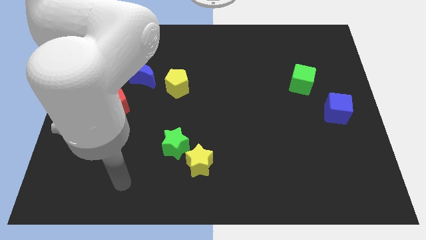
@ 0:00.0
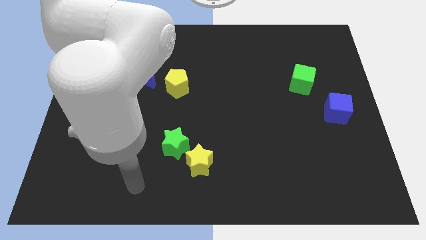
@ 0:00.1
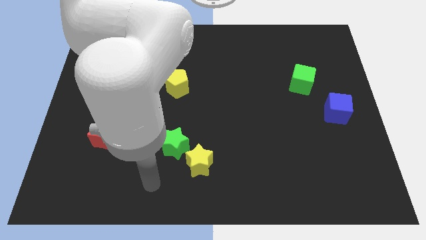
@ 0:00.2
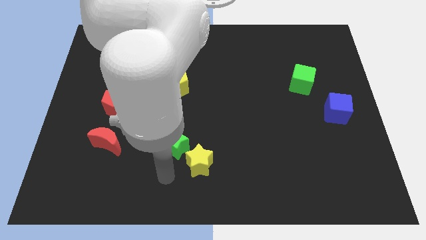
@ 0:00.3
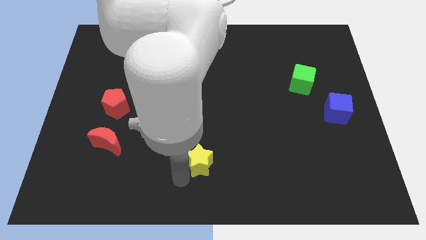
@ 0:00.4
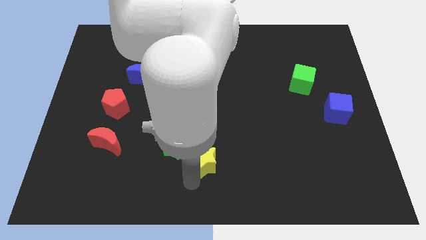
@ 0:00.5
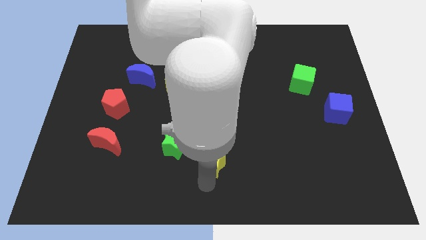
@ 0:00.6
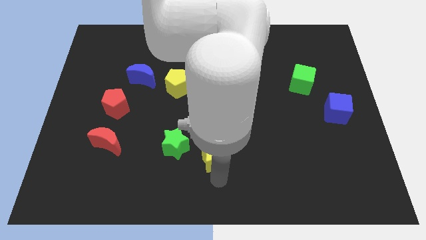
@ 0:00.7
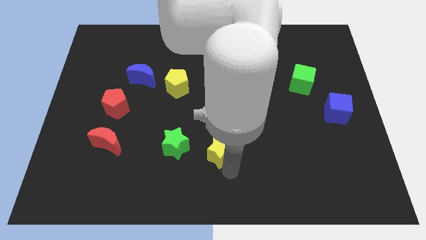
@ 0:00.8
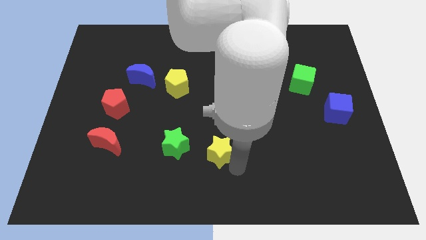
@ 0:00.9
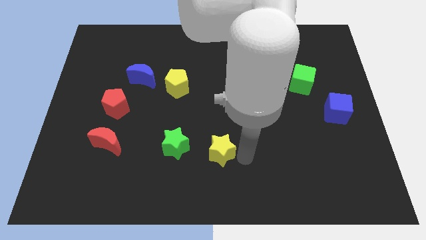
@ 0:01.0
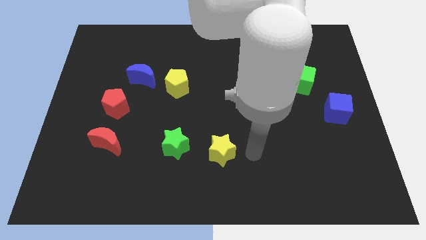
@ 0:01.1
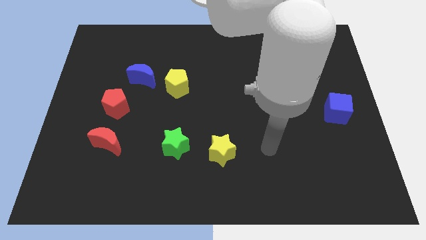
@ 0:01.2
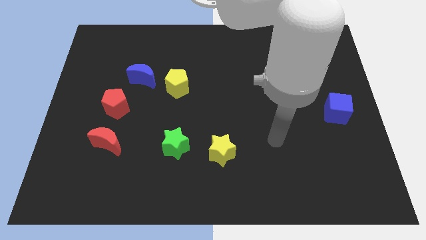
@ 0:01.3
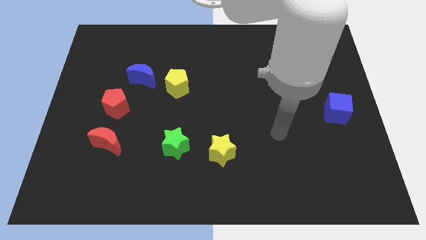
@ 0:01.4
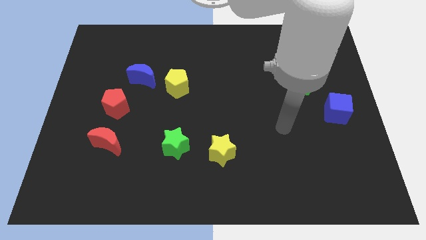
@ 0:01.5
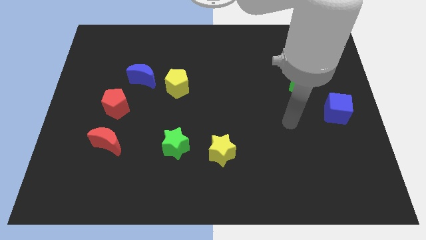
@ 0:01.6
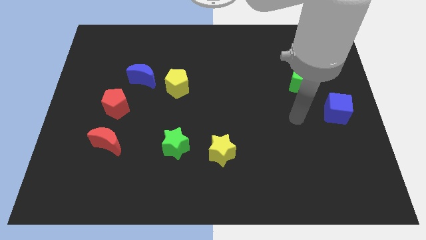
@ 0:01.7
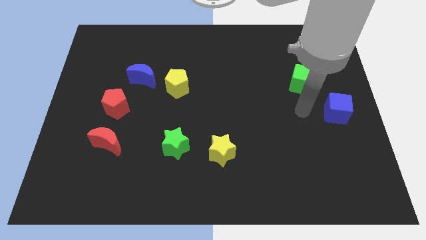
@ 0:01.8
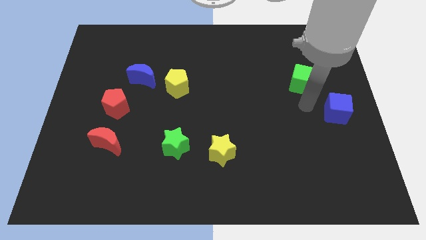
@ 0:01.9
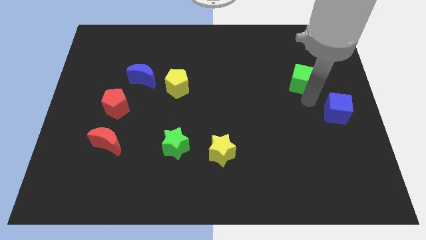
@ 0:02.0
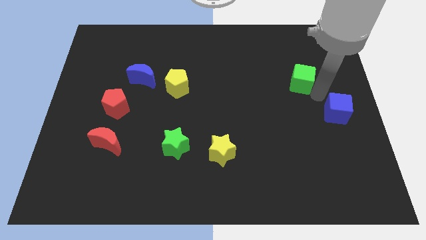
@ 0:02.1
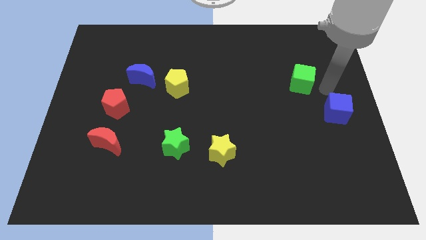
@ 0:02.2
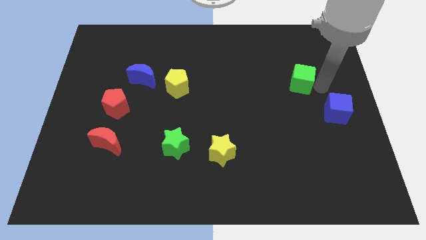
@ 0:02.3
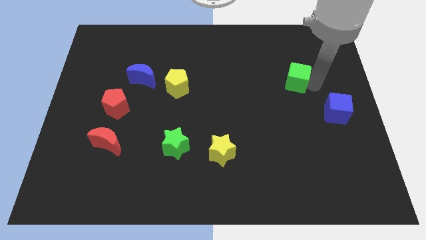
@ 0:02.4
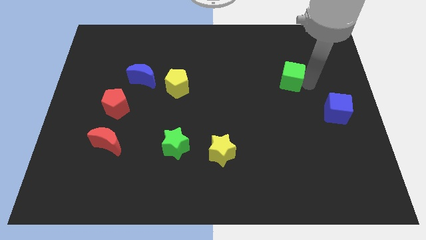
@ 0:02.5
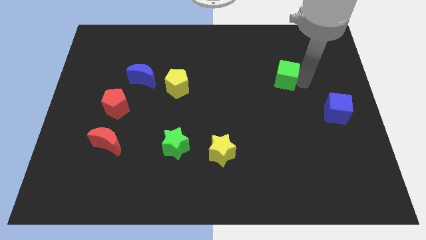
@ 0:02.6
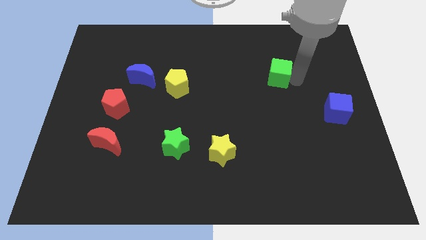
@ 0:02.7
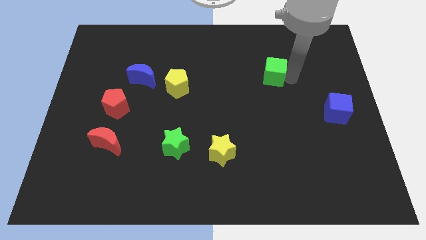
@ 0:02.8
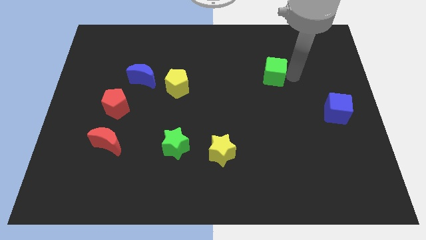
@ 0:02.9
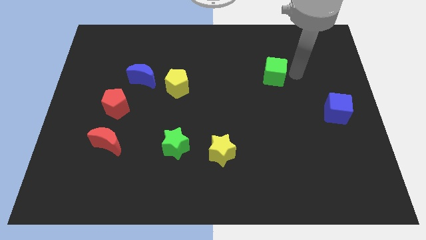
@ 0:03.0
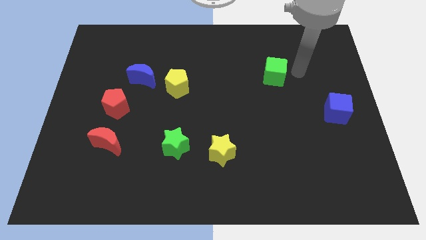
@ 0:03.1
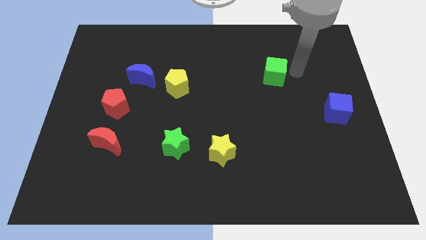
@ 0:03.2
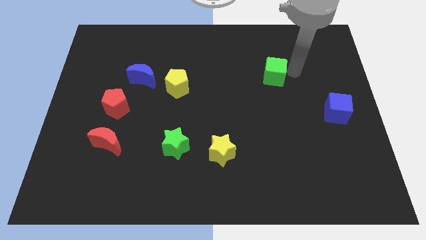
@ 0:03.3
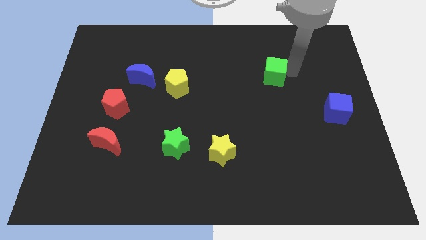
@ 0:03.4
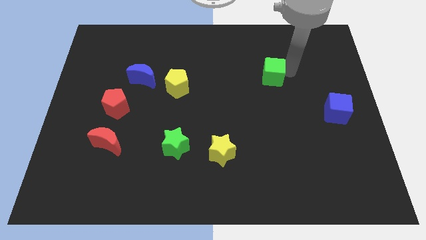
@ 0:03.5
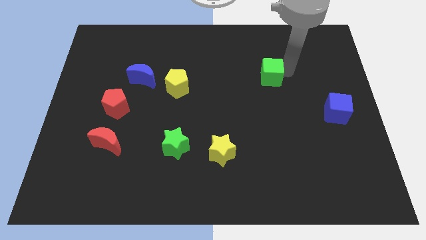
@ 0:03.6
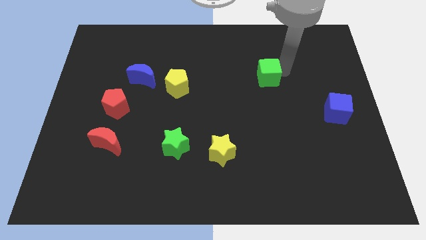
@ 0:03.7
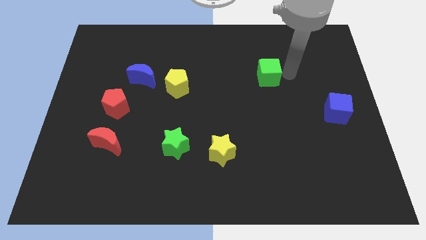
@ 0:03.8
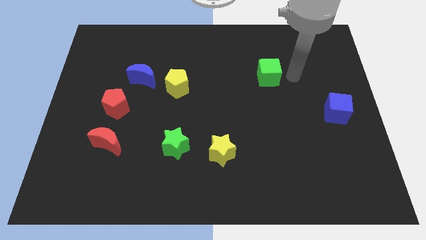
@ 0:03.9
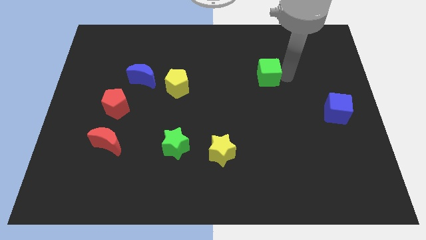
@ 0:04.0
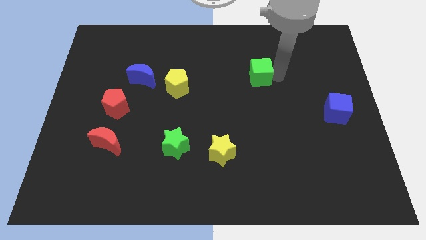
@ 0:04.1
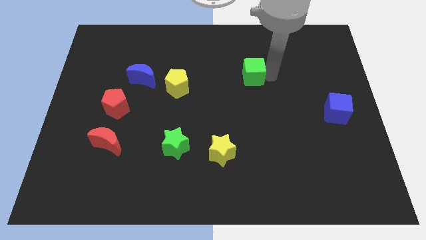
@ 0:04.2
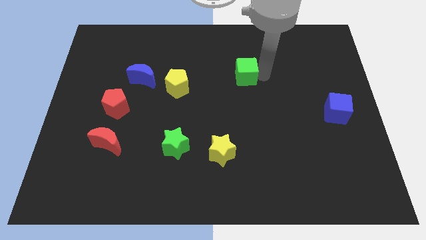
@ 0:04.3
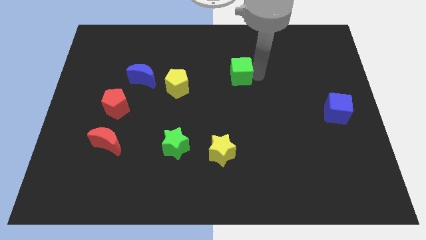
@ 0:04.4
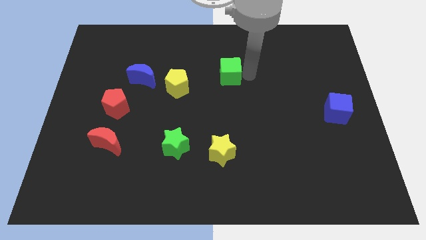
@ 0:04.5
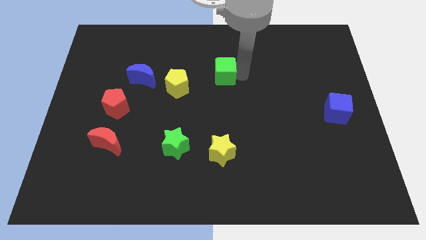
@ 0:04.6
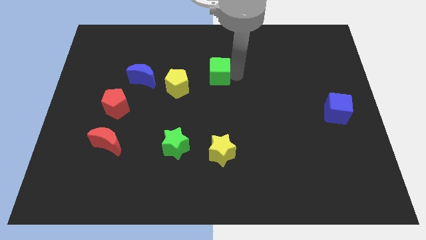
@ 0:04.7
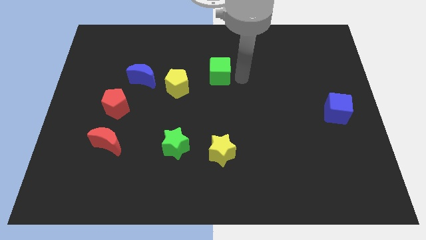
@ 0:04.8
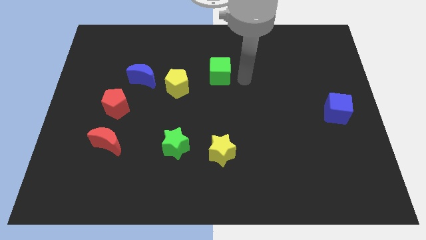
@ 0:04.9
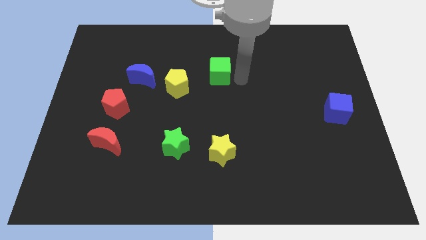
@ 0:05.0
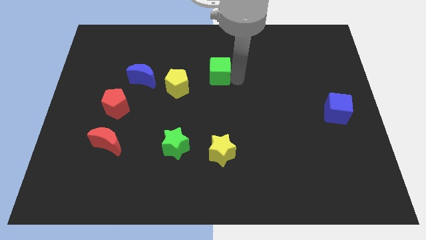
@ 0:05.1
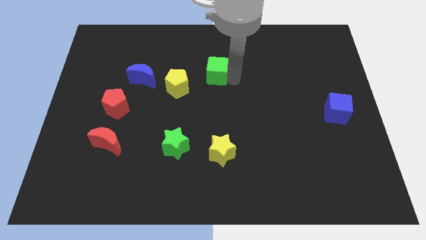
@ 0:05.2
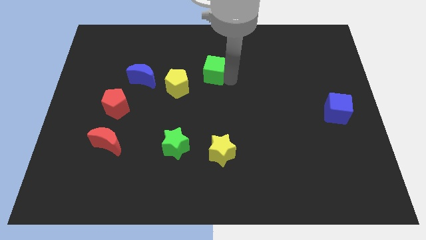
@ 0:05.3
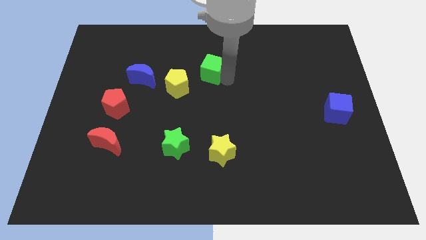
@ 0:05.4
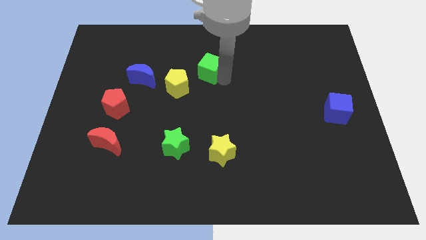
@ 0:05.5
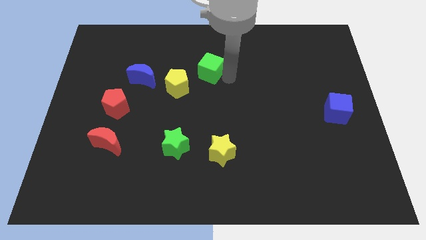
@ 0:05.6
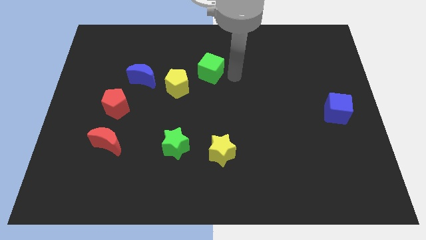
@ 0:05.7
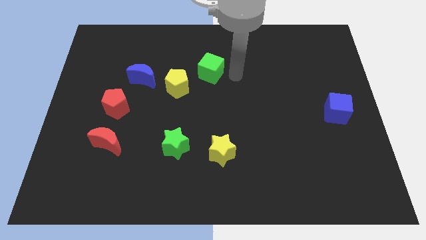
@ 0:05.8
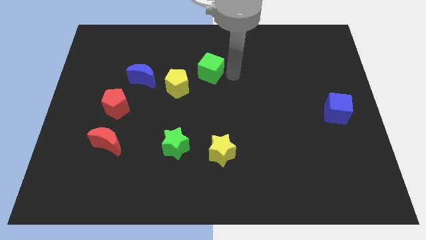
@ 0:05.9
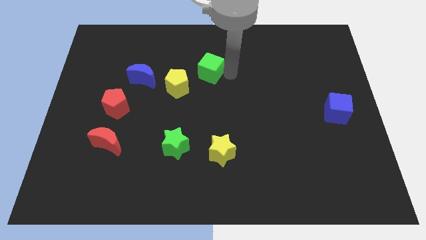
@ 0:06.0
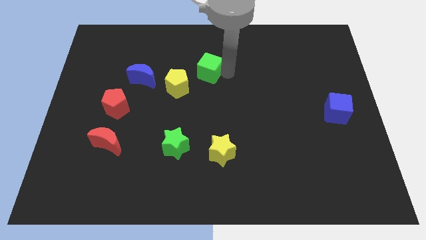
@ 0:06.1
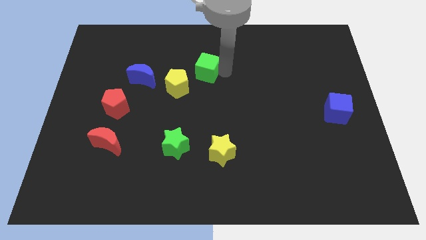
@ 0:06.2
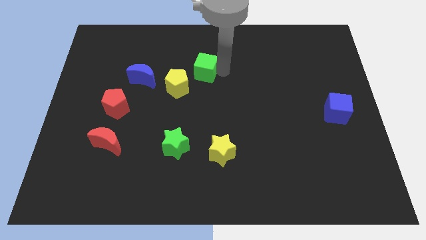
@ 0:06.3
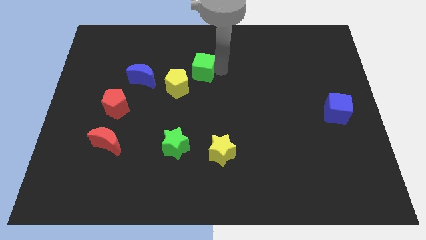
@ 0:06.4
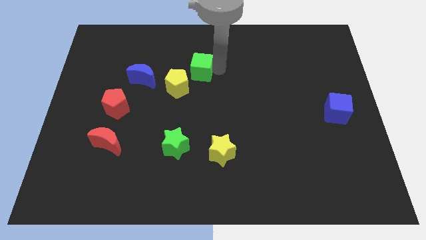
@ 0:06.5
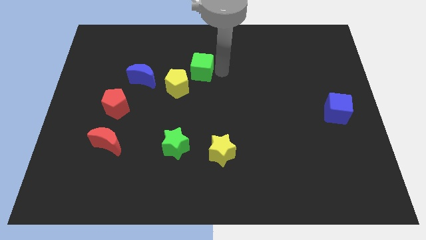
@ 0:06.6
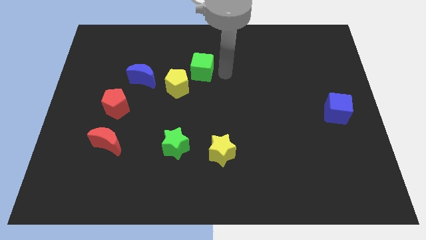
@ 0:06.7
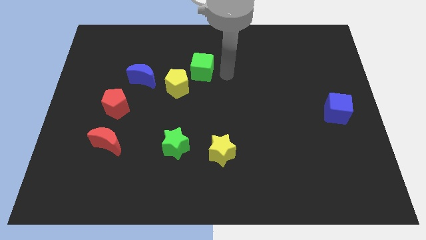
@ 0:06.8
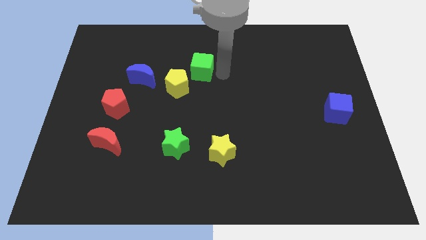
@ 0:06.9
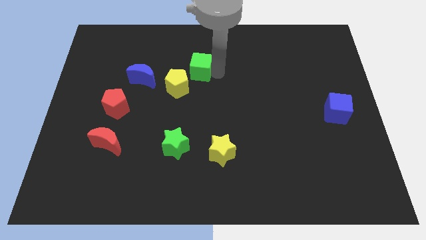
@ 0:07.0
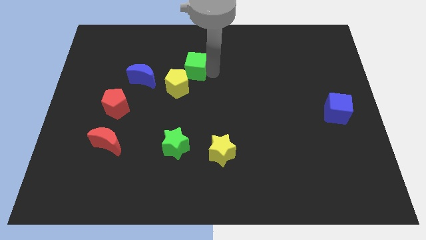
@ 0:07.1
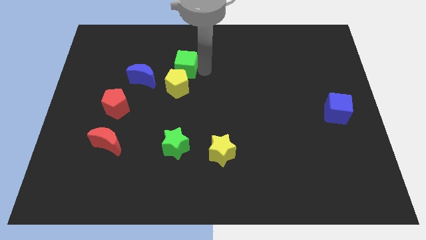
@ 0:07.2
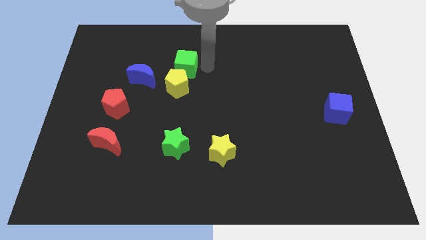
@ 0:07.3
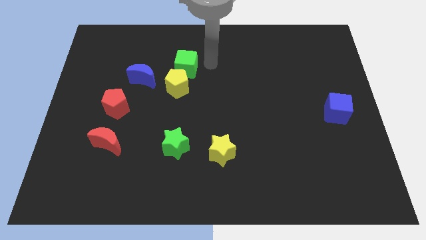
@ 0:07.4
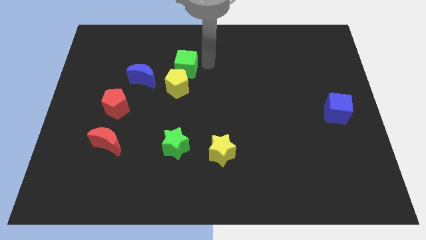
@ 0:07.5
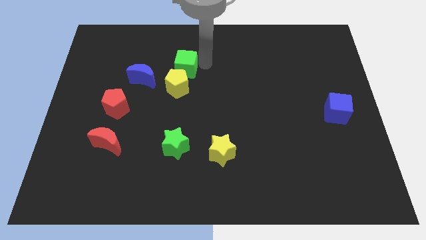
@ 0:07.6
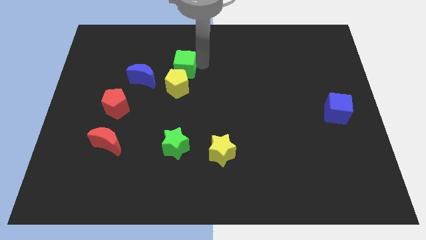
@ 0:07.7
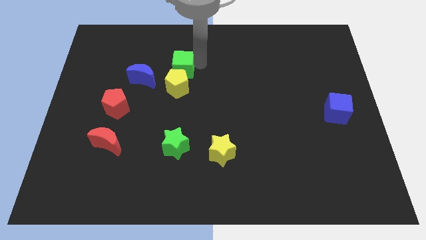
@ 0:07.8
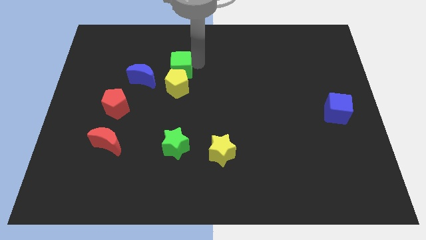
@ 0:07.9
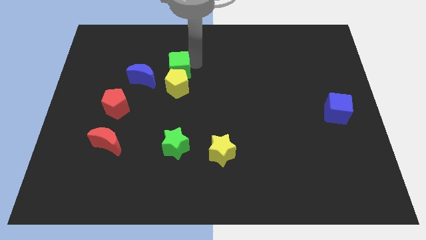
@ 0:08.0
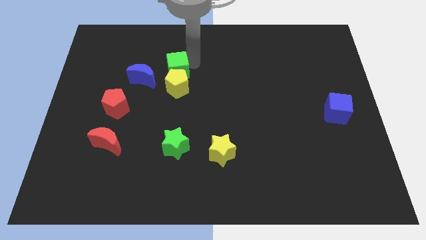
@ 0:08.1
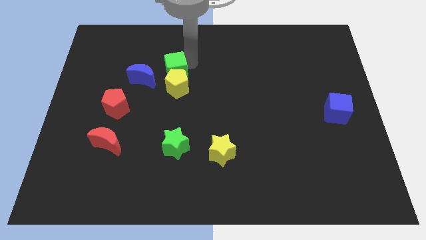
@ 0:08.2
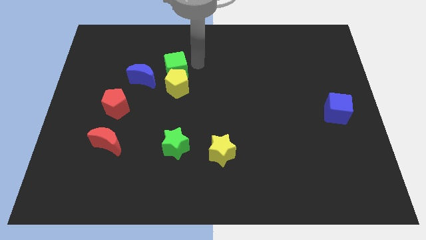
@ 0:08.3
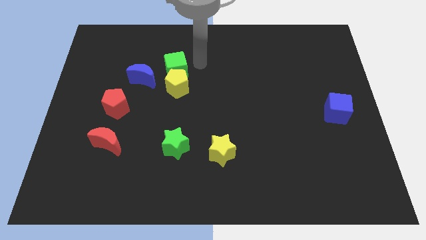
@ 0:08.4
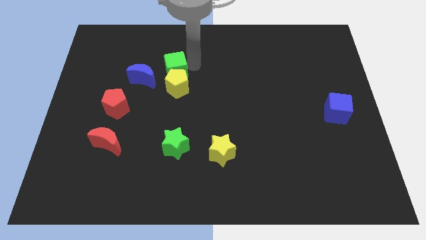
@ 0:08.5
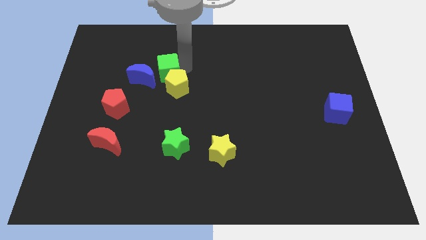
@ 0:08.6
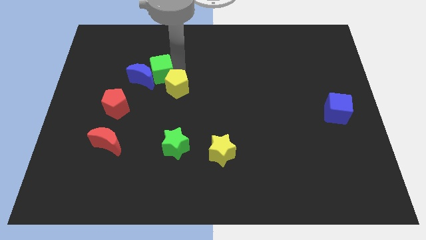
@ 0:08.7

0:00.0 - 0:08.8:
push the green cube next to the blue moon
